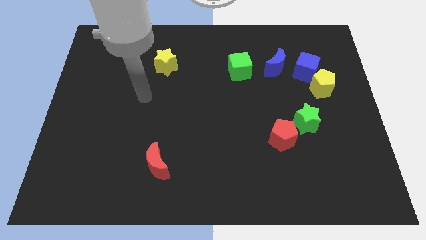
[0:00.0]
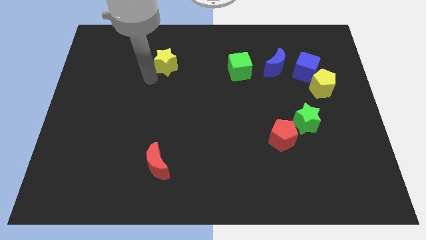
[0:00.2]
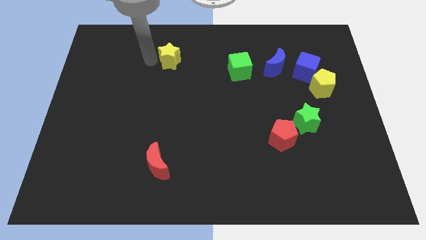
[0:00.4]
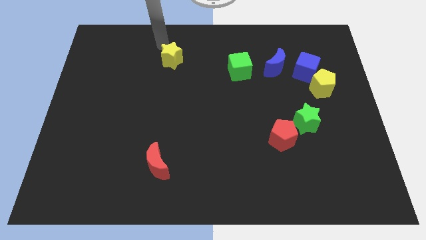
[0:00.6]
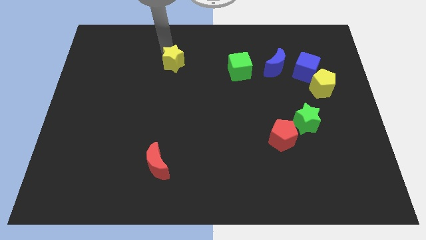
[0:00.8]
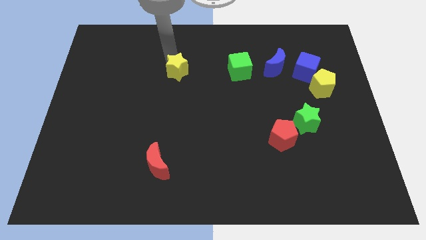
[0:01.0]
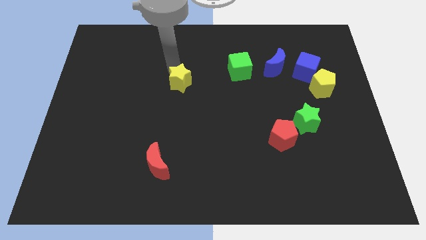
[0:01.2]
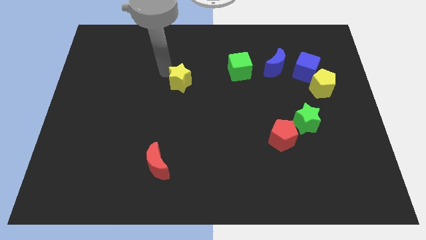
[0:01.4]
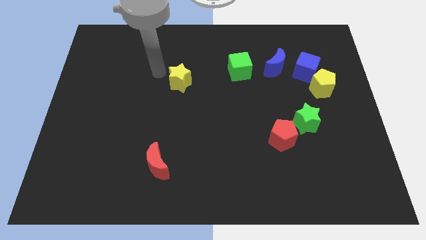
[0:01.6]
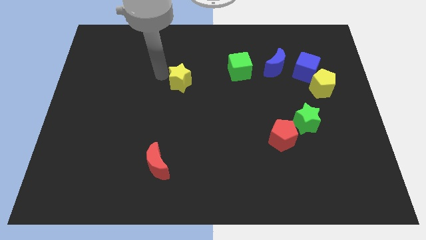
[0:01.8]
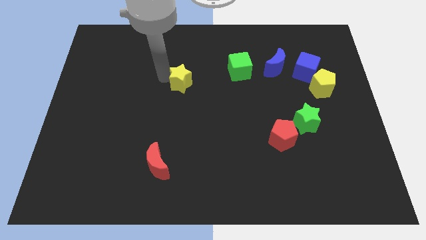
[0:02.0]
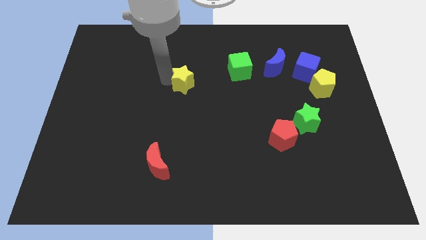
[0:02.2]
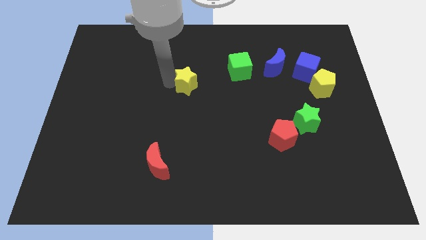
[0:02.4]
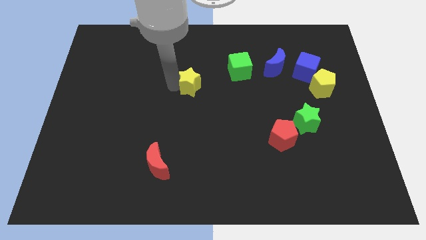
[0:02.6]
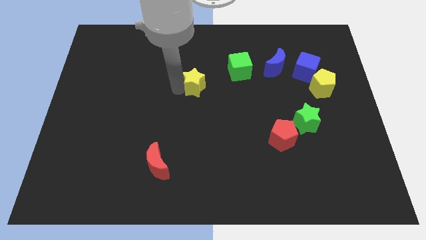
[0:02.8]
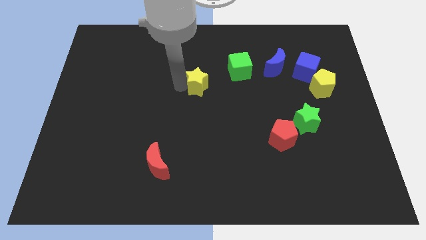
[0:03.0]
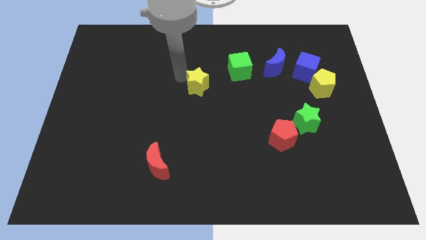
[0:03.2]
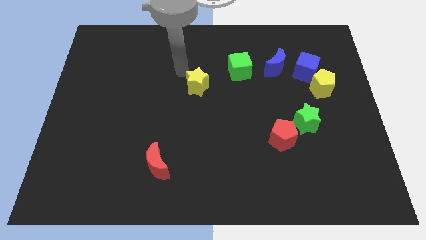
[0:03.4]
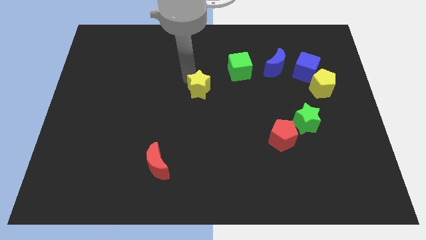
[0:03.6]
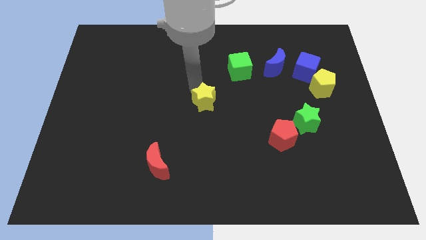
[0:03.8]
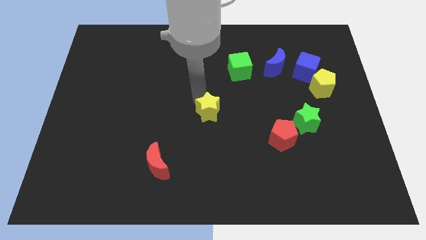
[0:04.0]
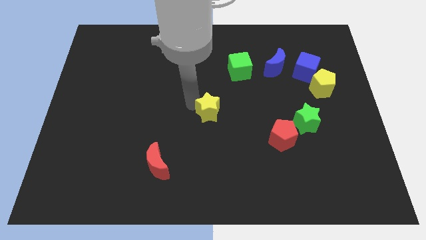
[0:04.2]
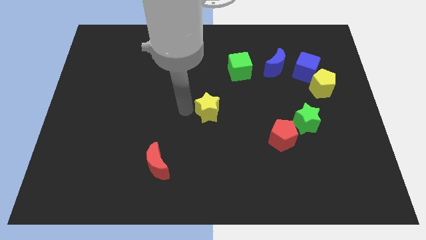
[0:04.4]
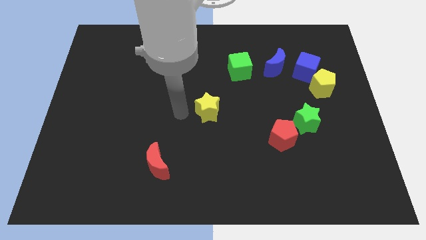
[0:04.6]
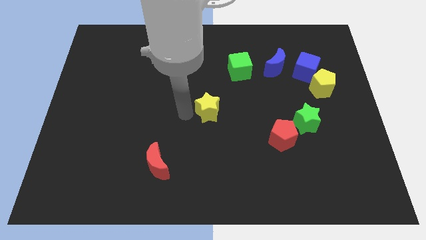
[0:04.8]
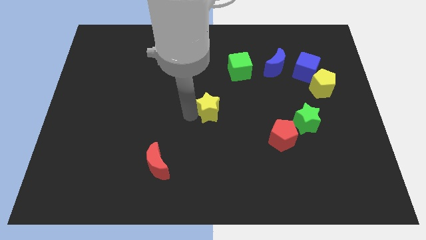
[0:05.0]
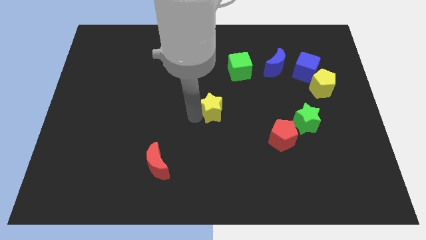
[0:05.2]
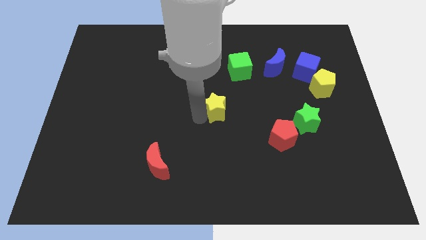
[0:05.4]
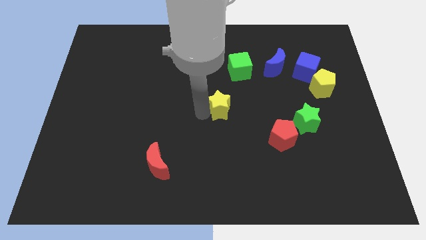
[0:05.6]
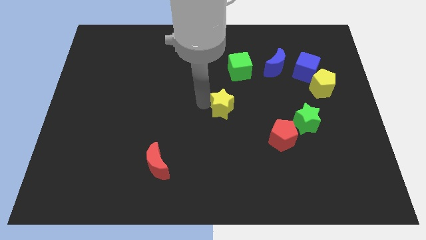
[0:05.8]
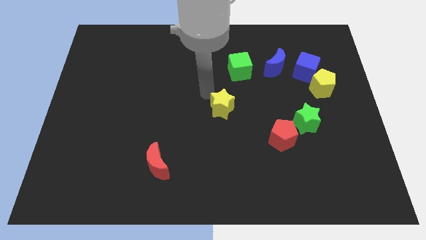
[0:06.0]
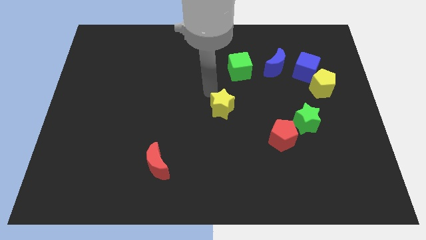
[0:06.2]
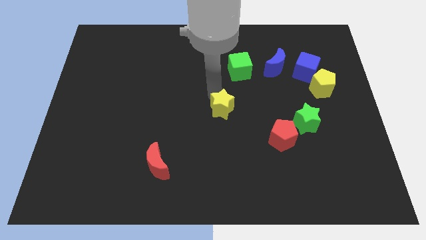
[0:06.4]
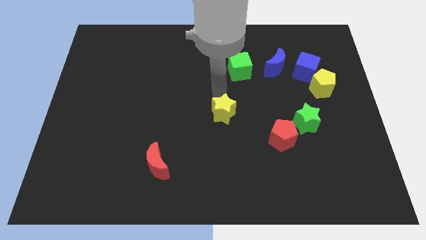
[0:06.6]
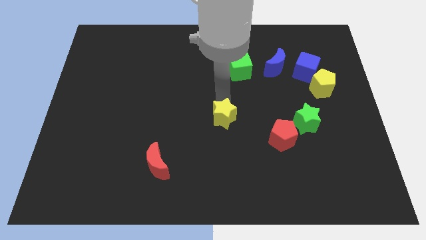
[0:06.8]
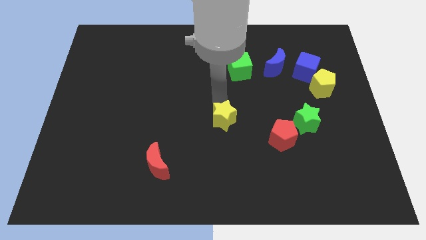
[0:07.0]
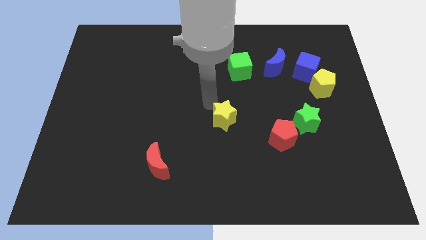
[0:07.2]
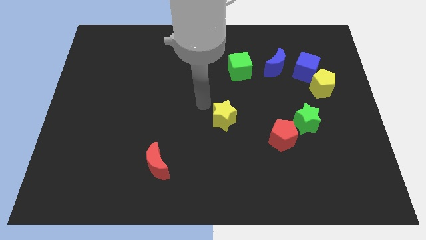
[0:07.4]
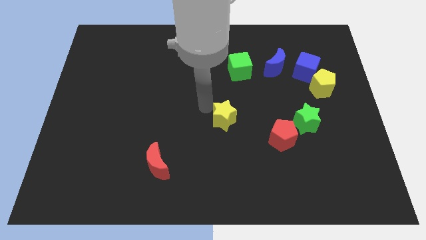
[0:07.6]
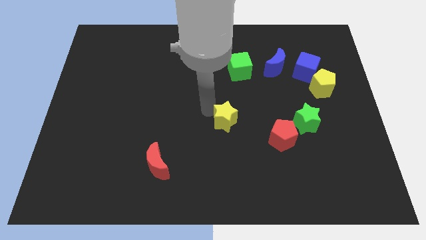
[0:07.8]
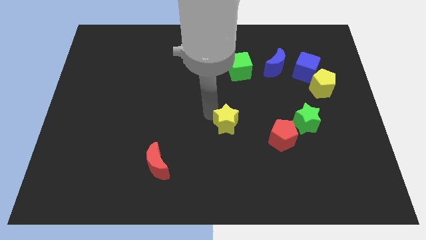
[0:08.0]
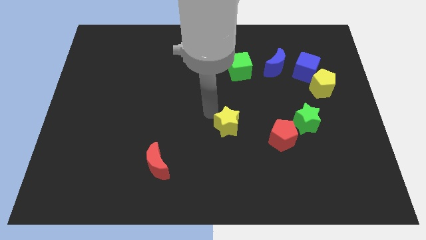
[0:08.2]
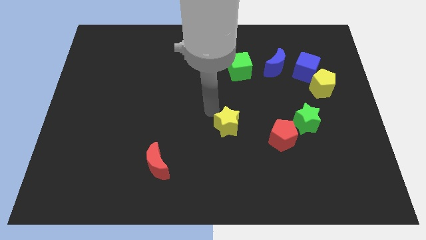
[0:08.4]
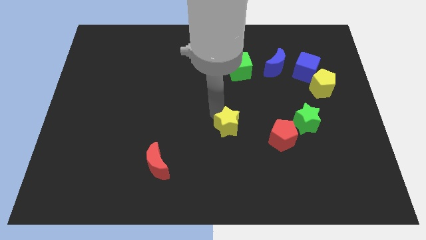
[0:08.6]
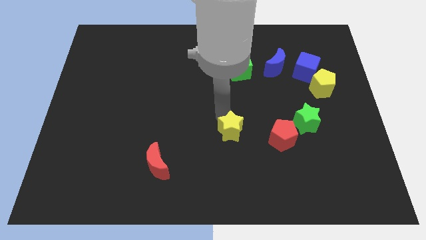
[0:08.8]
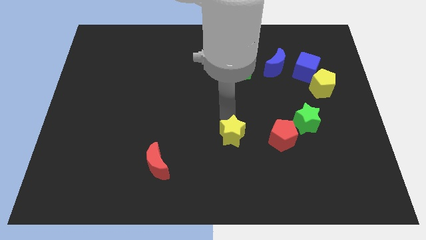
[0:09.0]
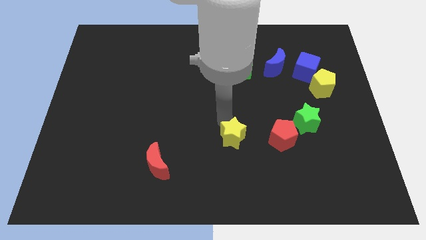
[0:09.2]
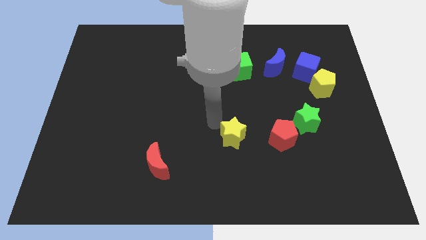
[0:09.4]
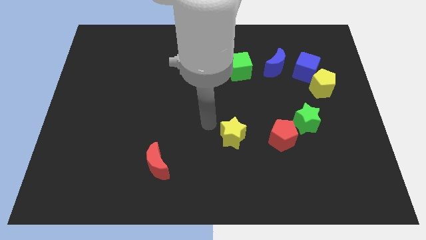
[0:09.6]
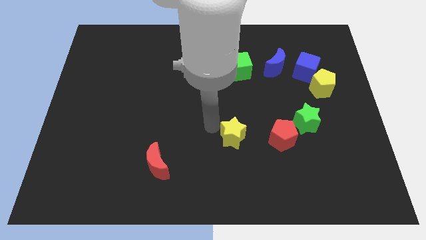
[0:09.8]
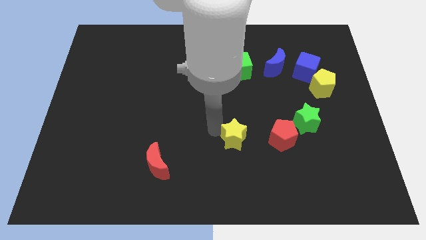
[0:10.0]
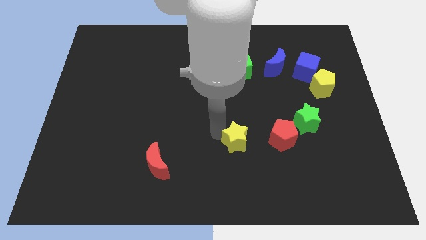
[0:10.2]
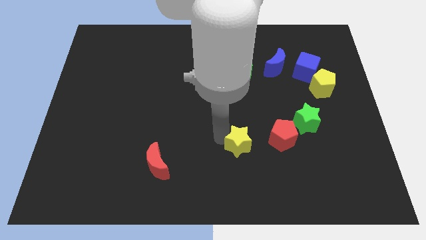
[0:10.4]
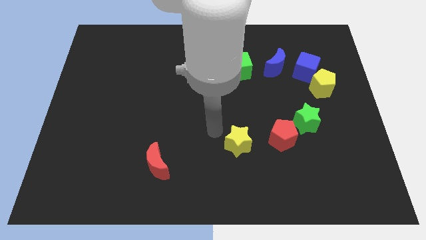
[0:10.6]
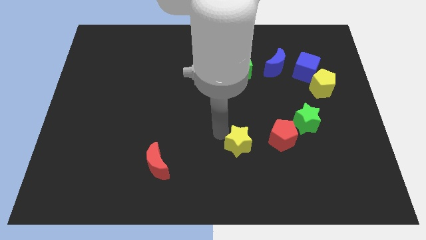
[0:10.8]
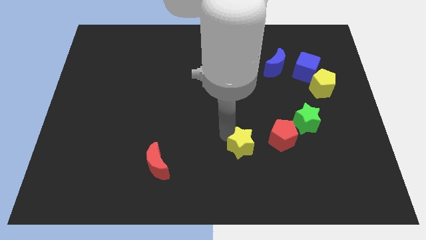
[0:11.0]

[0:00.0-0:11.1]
slide the yellow star to the bottom left of the red pentagon

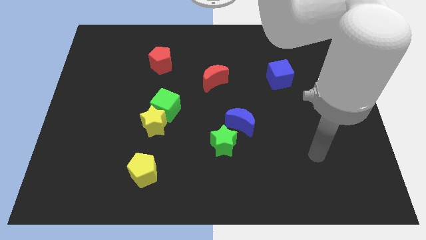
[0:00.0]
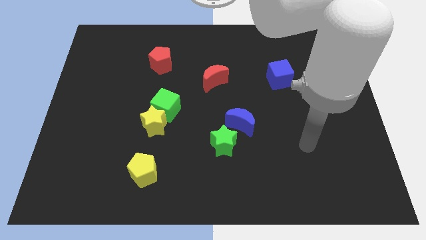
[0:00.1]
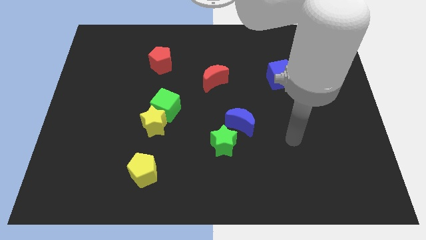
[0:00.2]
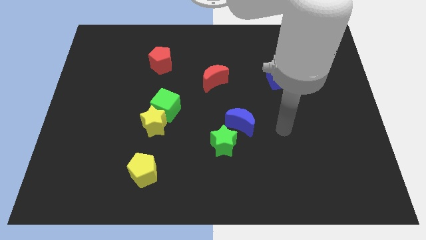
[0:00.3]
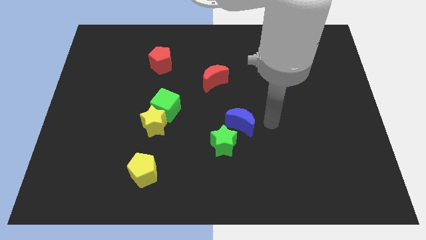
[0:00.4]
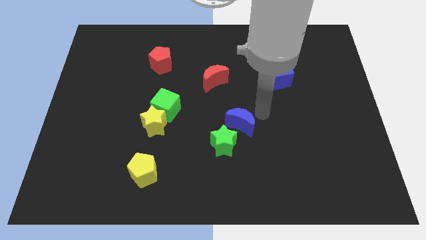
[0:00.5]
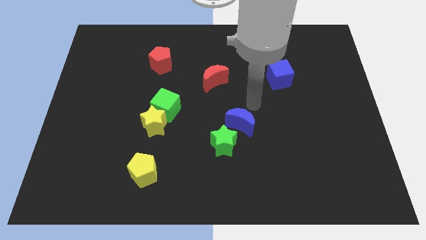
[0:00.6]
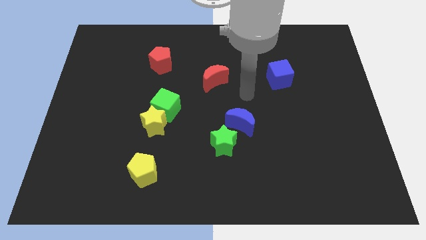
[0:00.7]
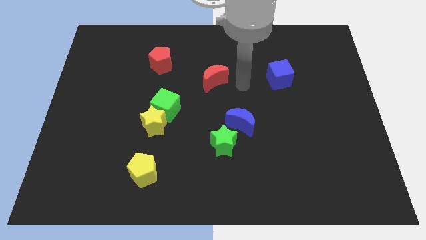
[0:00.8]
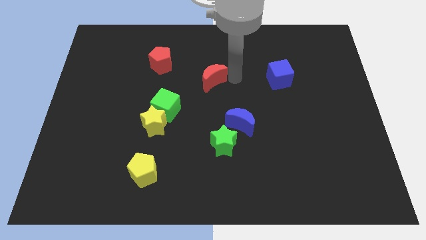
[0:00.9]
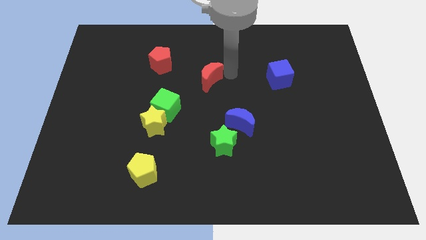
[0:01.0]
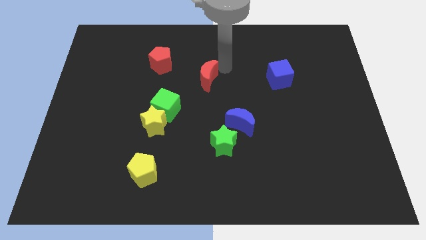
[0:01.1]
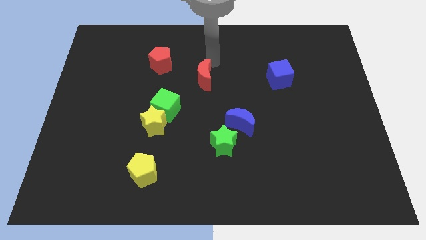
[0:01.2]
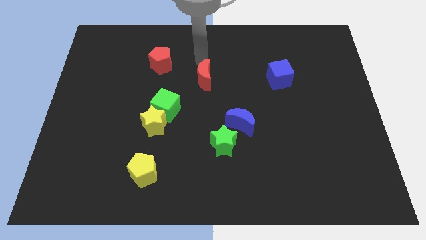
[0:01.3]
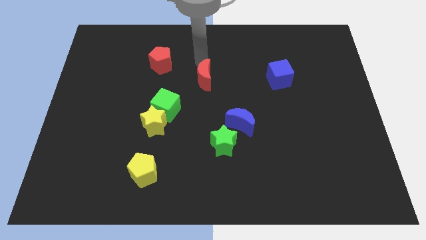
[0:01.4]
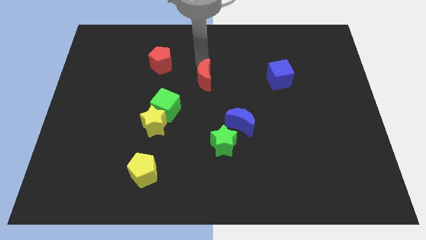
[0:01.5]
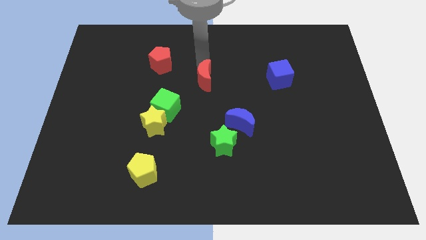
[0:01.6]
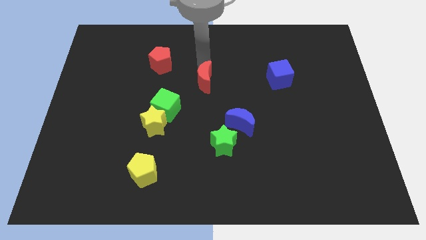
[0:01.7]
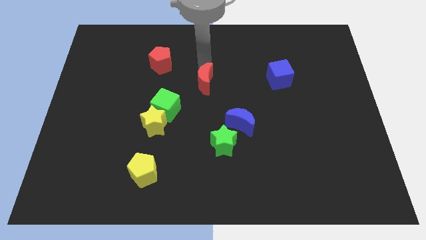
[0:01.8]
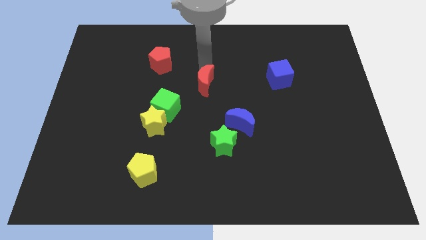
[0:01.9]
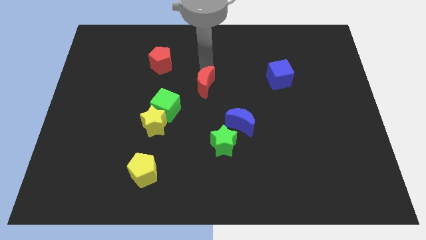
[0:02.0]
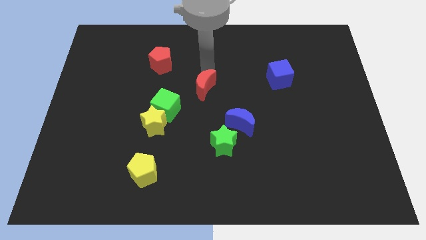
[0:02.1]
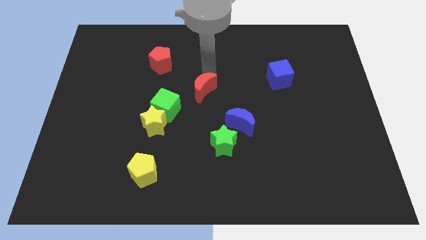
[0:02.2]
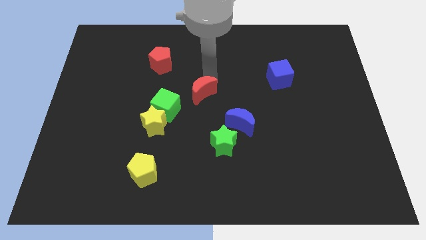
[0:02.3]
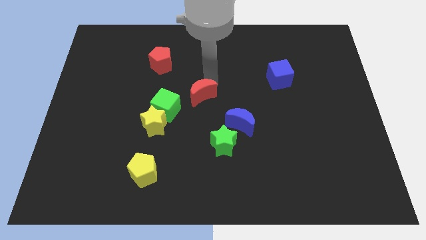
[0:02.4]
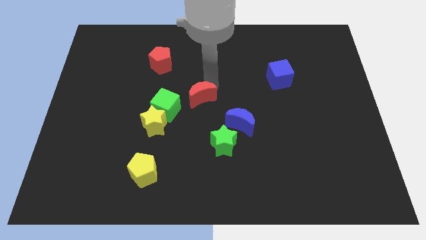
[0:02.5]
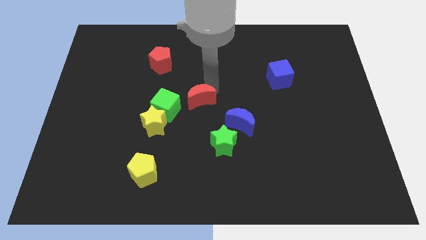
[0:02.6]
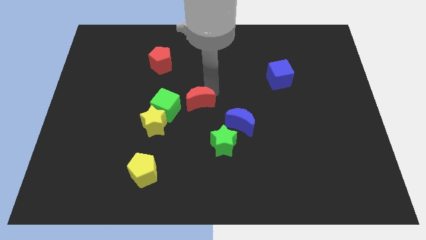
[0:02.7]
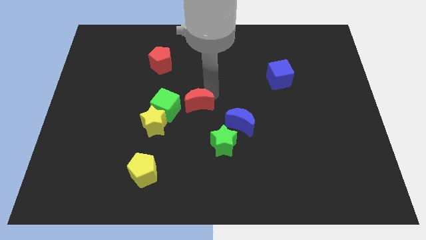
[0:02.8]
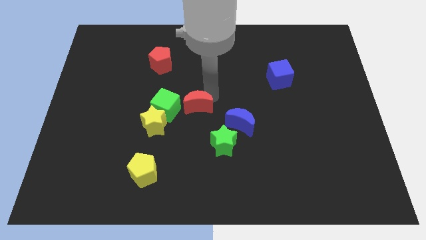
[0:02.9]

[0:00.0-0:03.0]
push the red moon to the top left side of the green star
